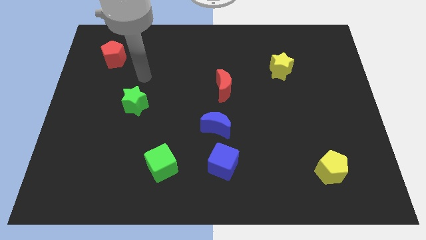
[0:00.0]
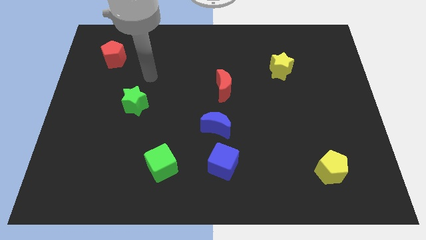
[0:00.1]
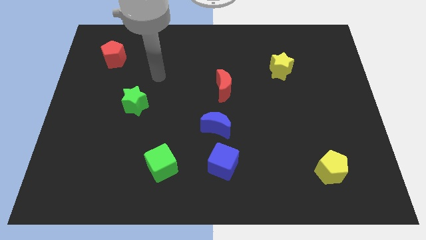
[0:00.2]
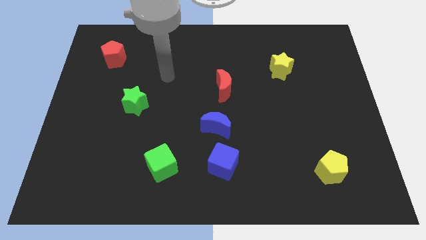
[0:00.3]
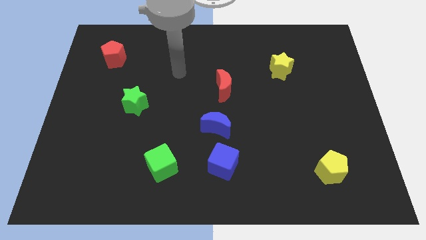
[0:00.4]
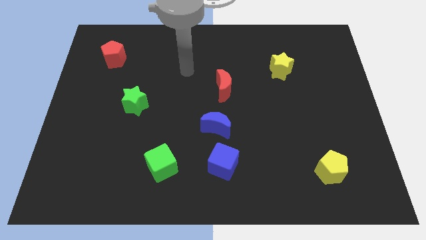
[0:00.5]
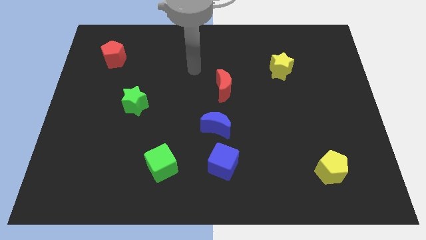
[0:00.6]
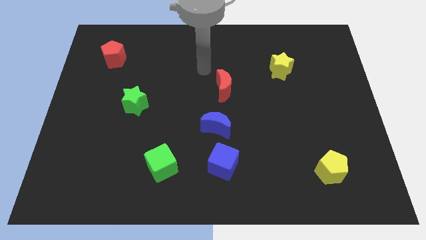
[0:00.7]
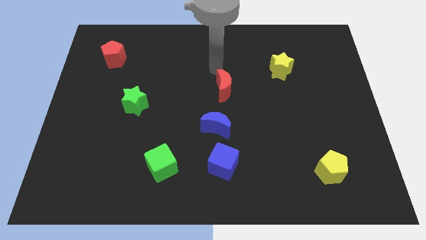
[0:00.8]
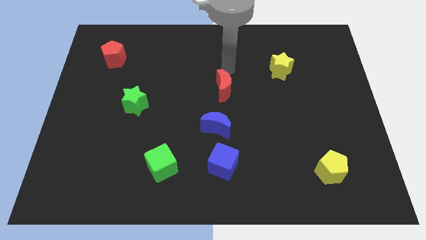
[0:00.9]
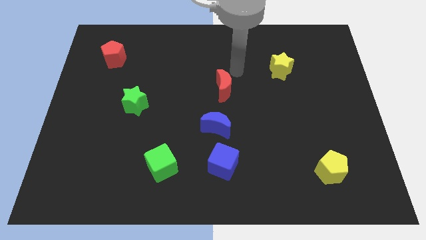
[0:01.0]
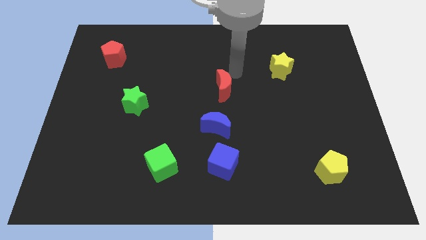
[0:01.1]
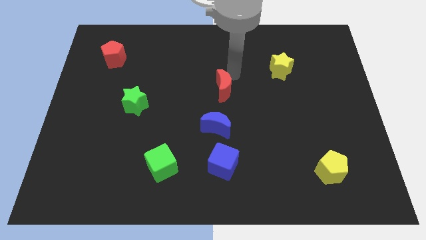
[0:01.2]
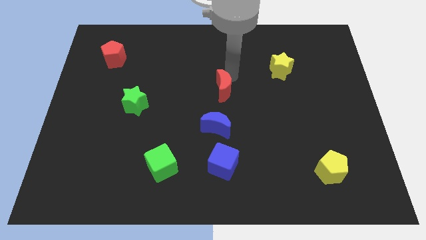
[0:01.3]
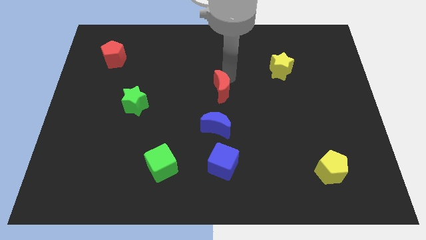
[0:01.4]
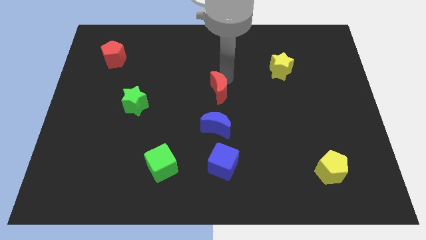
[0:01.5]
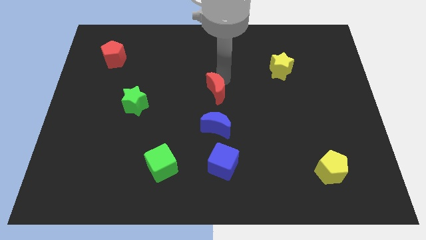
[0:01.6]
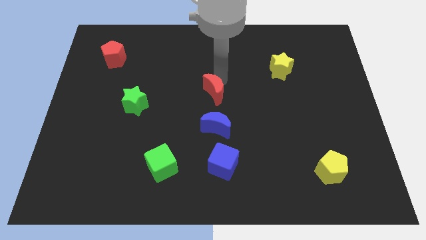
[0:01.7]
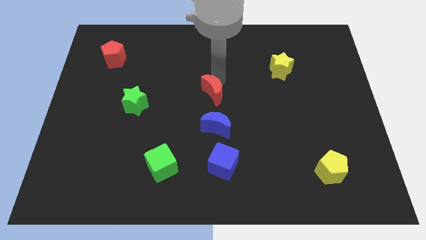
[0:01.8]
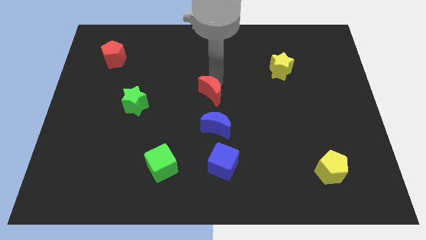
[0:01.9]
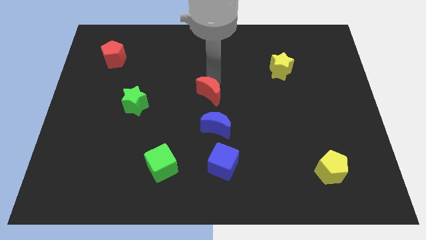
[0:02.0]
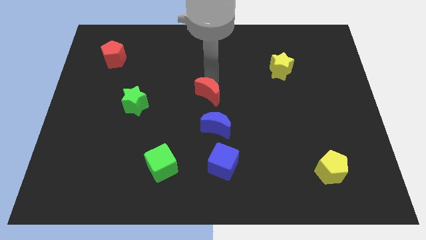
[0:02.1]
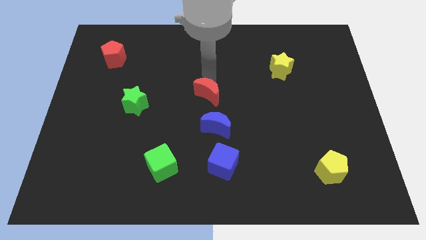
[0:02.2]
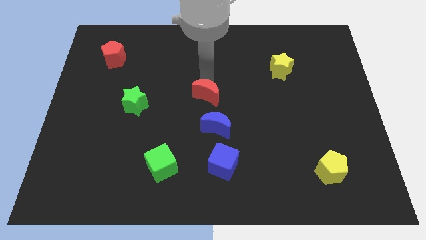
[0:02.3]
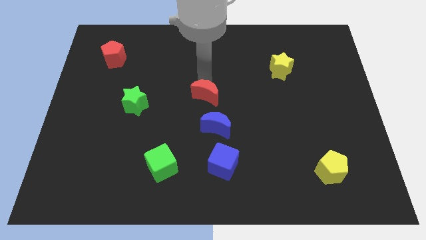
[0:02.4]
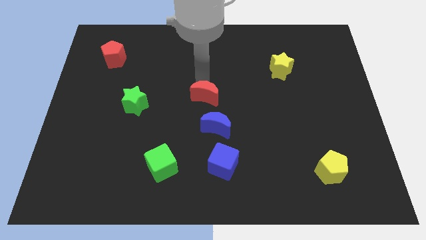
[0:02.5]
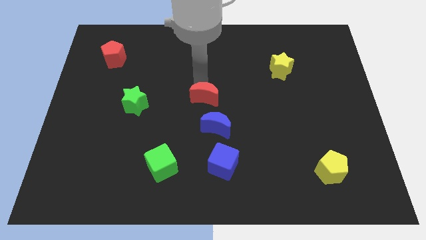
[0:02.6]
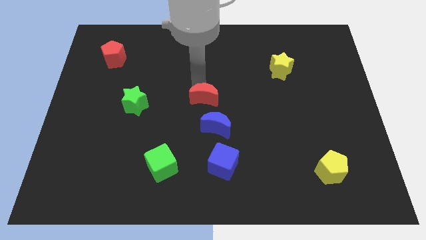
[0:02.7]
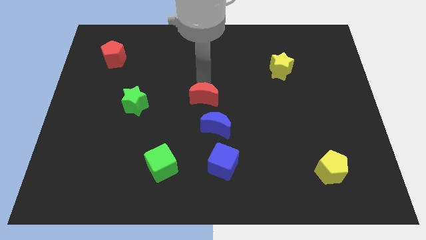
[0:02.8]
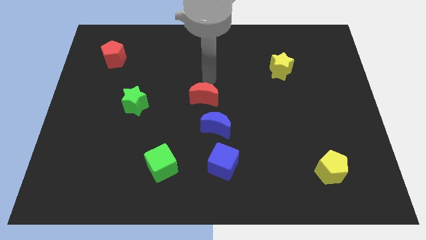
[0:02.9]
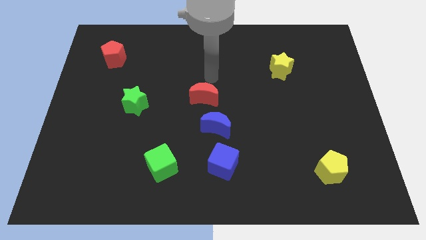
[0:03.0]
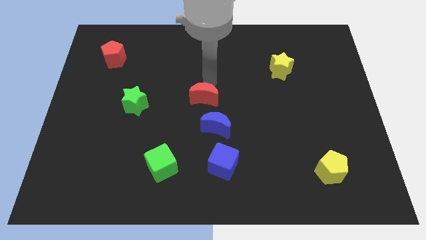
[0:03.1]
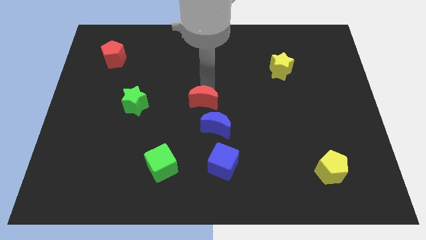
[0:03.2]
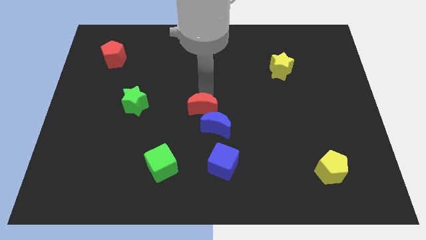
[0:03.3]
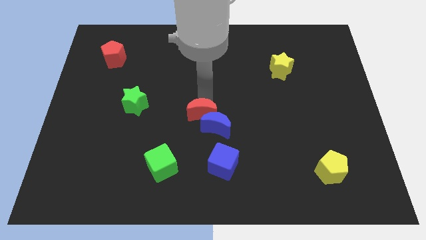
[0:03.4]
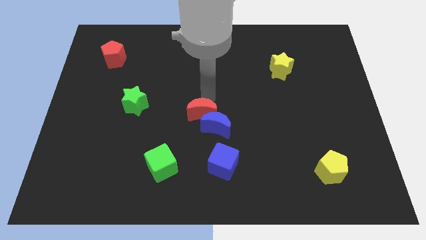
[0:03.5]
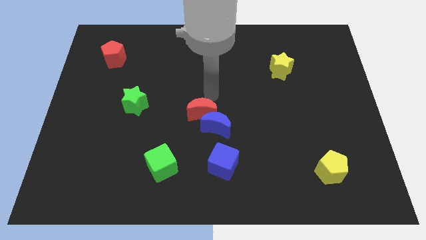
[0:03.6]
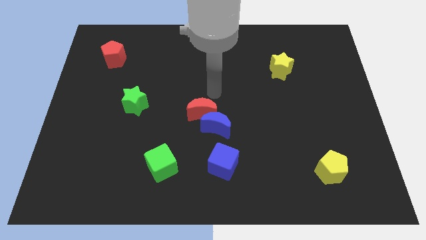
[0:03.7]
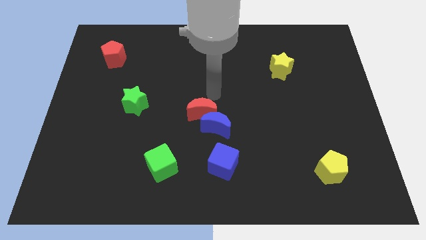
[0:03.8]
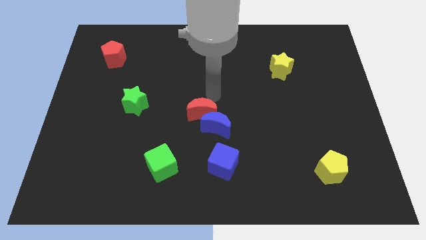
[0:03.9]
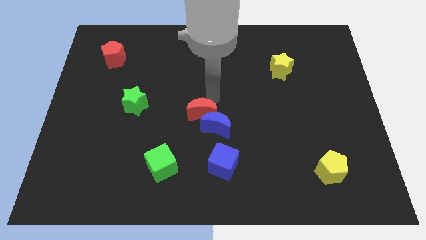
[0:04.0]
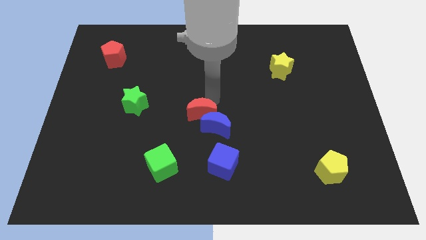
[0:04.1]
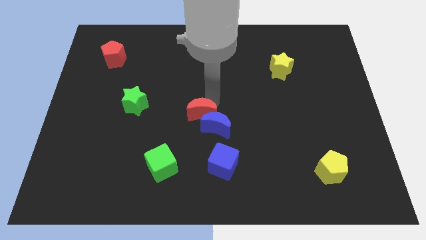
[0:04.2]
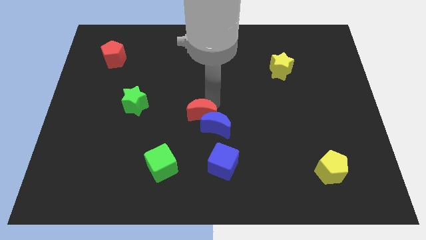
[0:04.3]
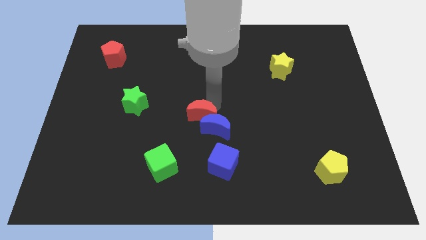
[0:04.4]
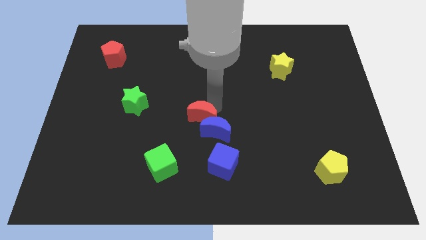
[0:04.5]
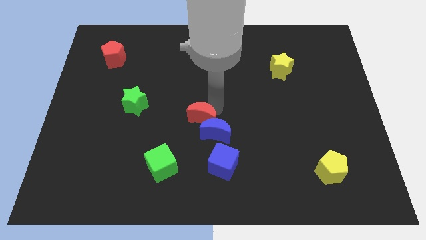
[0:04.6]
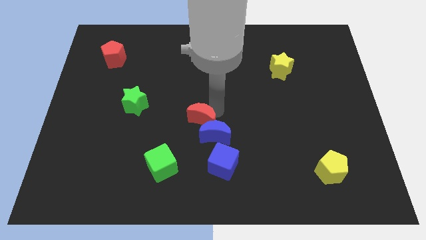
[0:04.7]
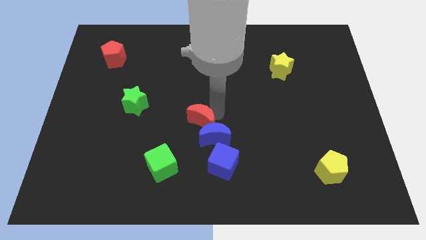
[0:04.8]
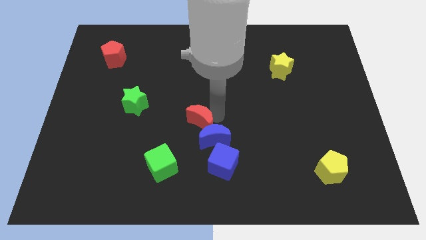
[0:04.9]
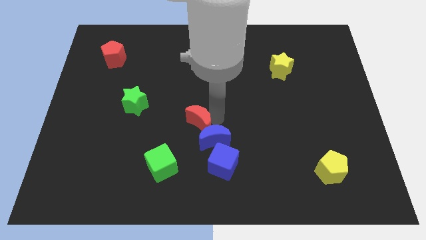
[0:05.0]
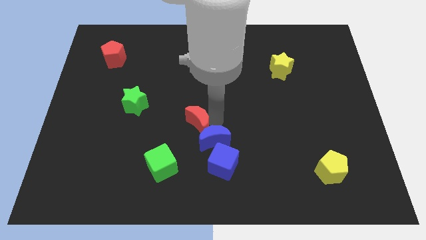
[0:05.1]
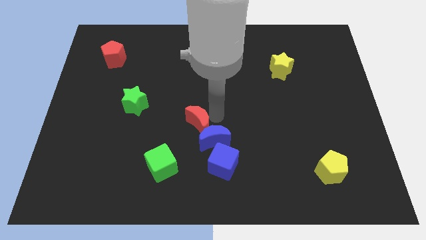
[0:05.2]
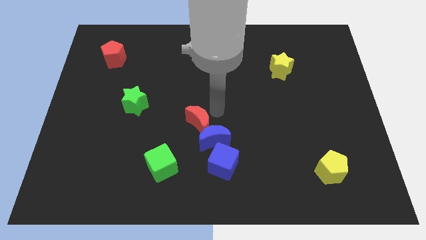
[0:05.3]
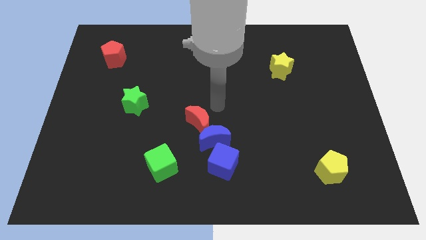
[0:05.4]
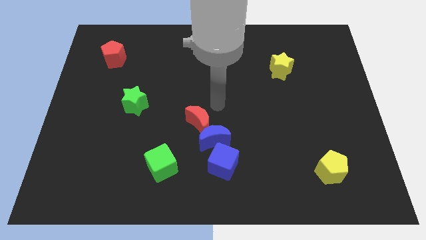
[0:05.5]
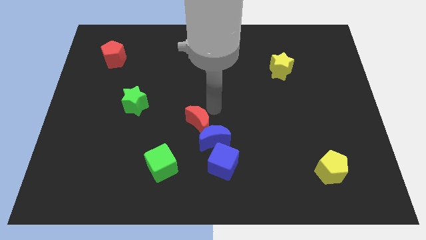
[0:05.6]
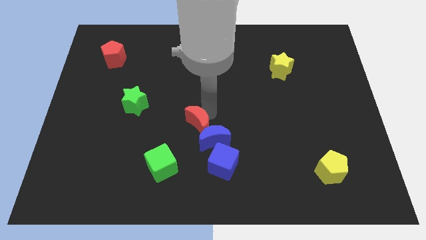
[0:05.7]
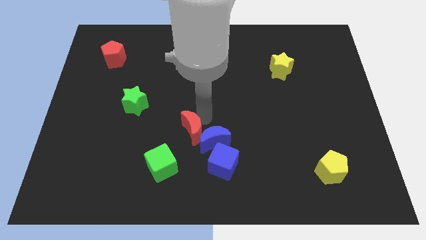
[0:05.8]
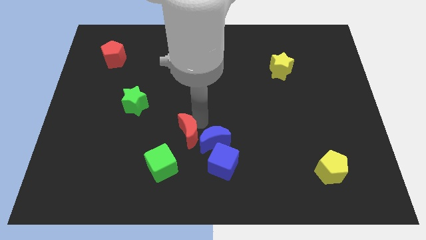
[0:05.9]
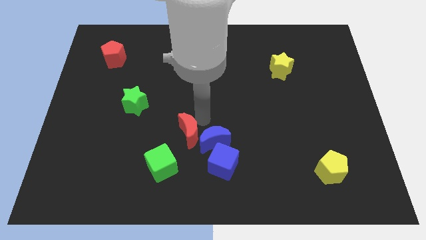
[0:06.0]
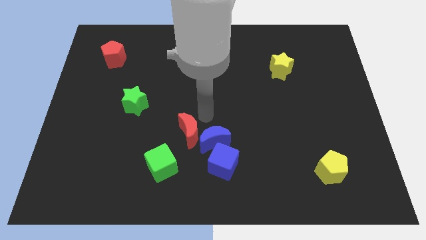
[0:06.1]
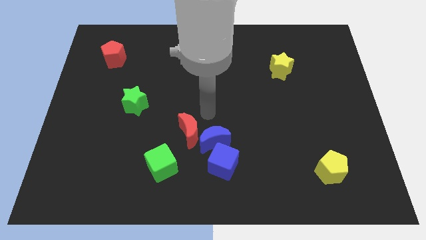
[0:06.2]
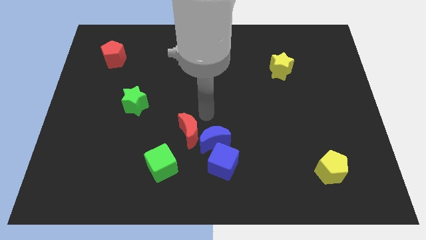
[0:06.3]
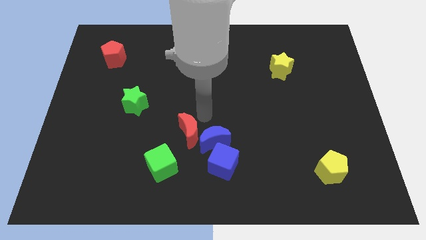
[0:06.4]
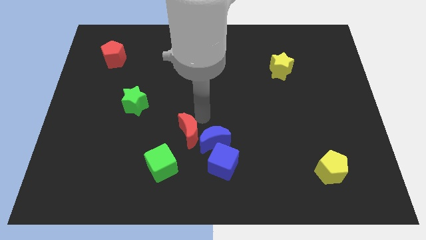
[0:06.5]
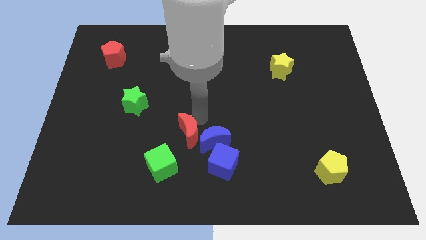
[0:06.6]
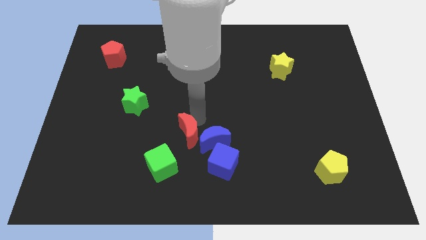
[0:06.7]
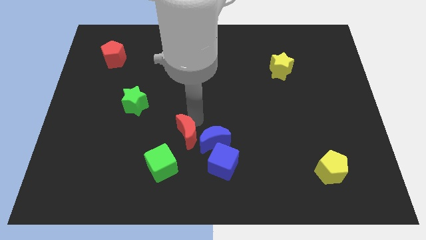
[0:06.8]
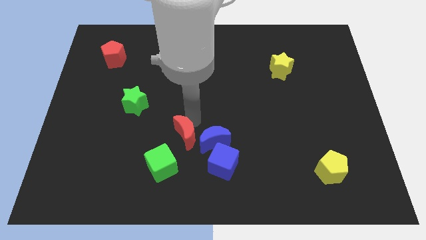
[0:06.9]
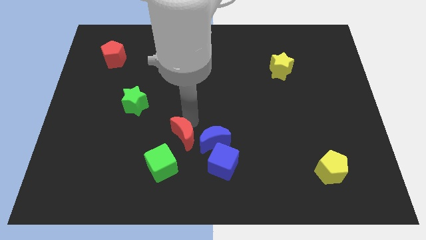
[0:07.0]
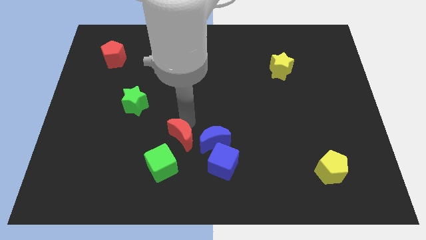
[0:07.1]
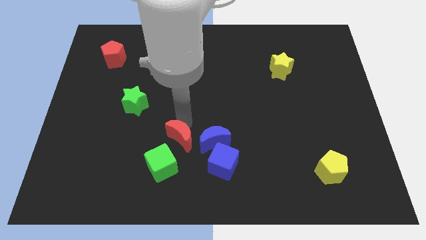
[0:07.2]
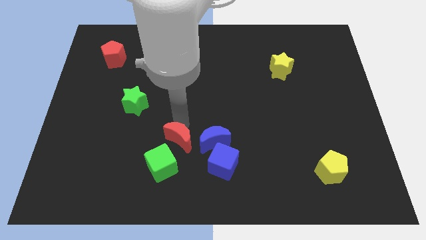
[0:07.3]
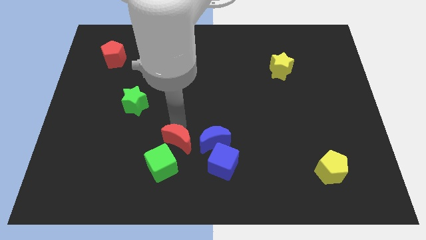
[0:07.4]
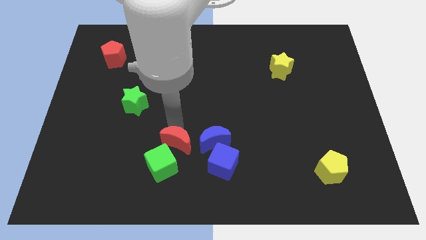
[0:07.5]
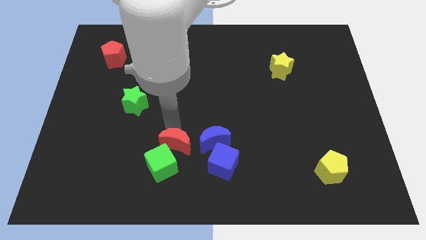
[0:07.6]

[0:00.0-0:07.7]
push the red moon close to the green cube
